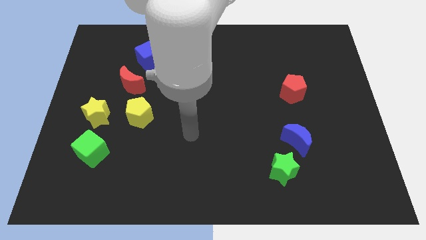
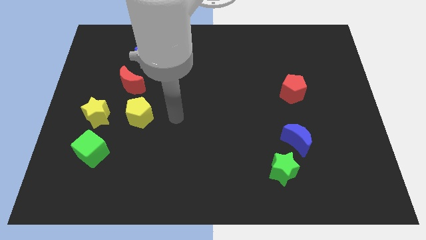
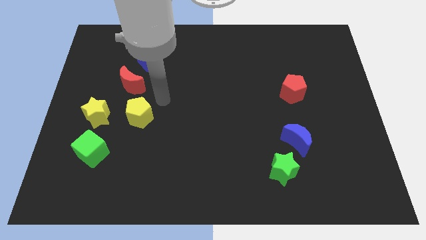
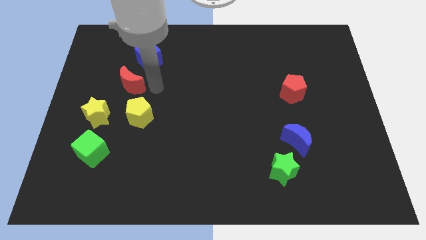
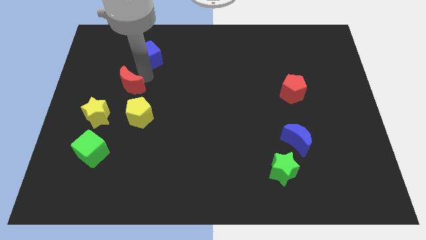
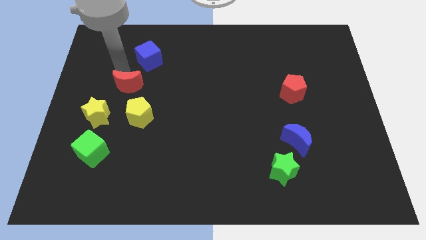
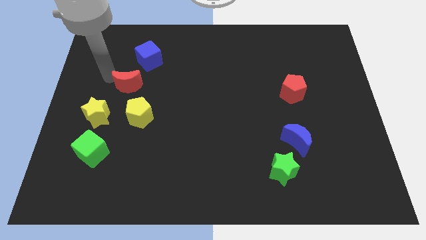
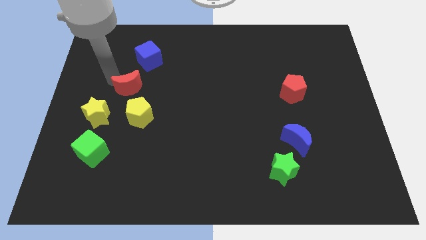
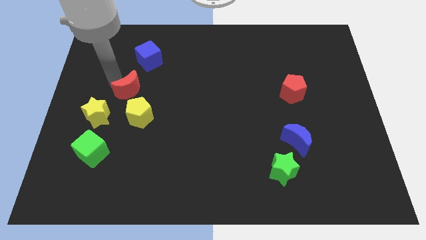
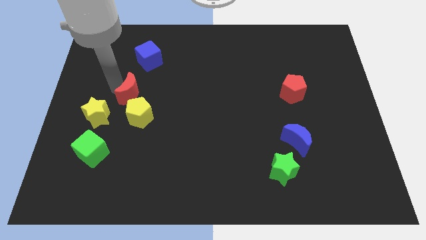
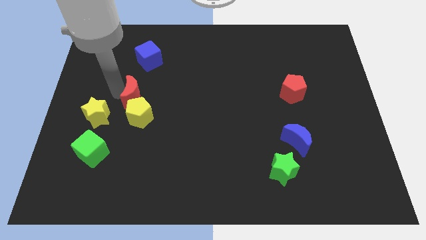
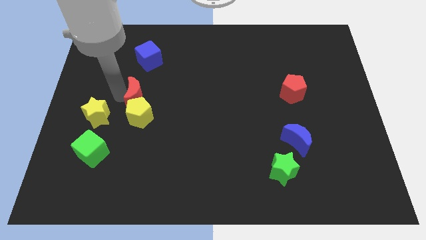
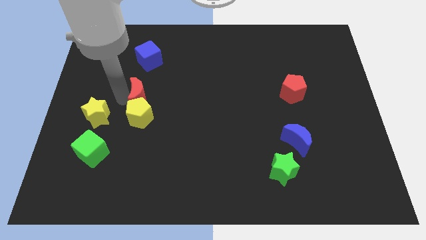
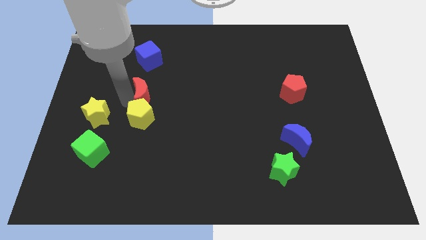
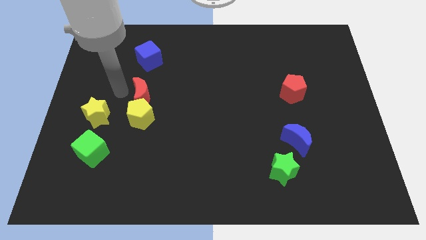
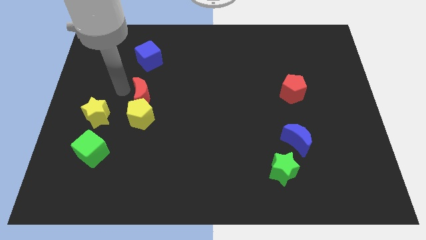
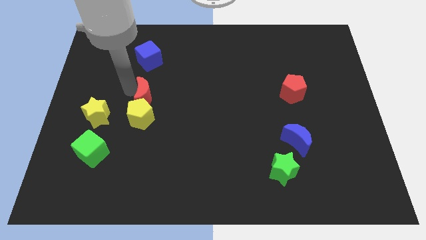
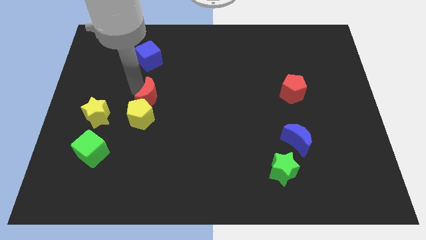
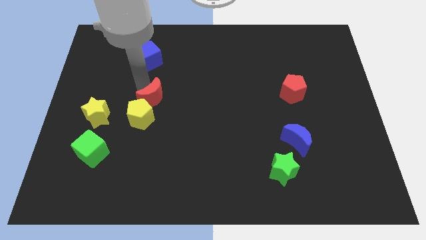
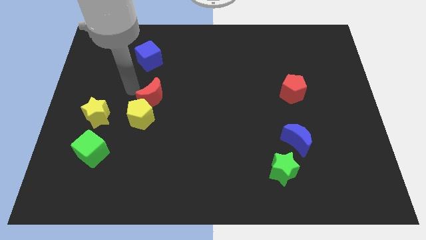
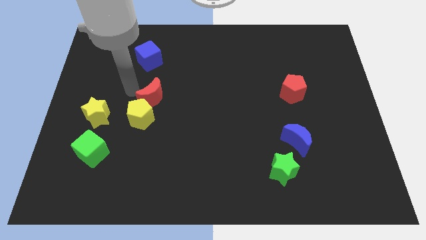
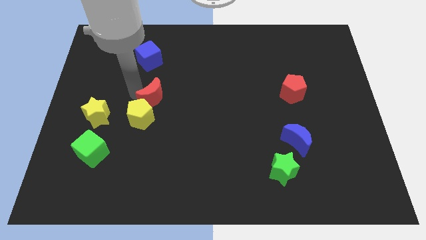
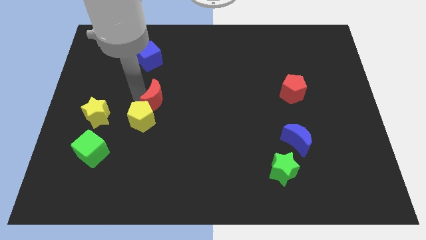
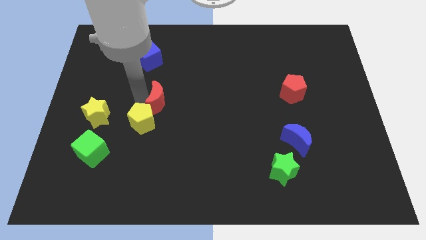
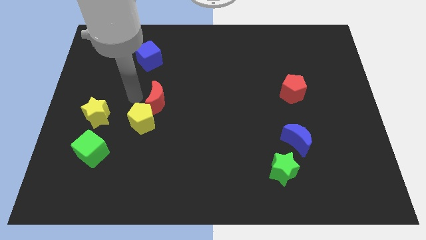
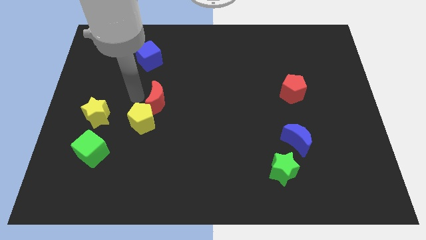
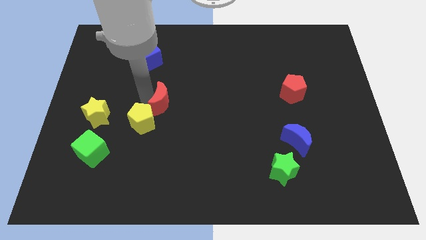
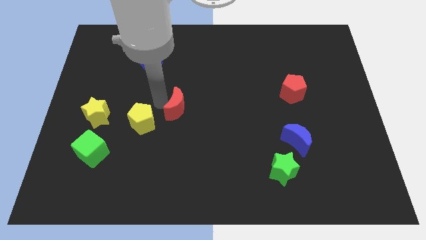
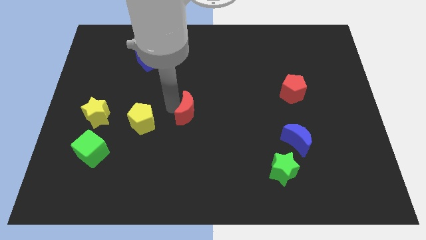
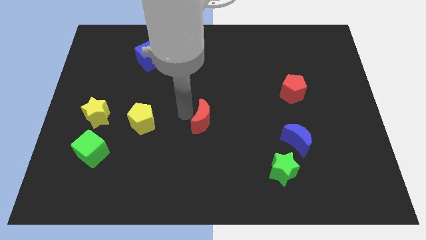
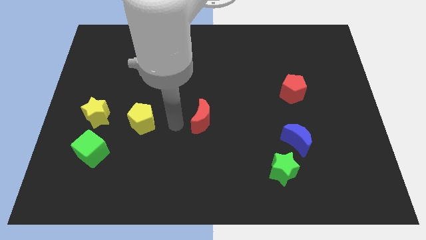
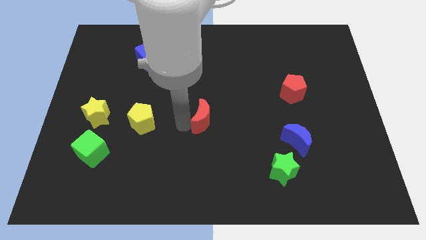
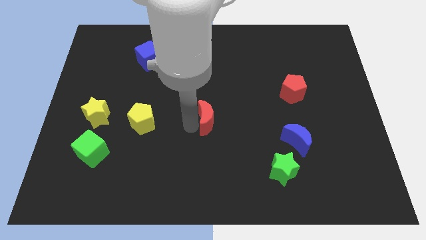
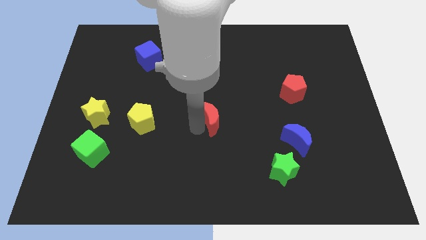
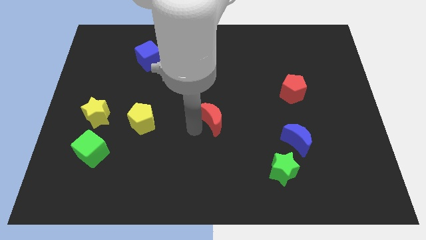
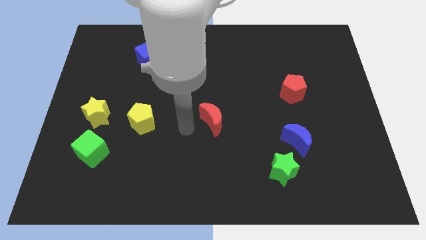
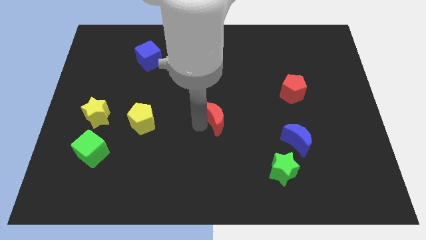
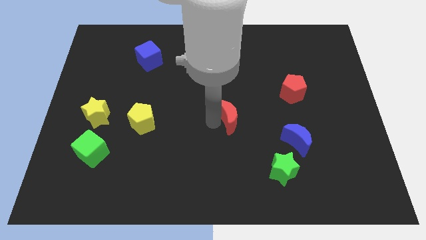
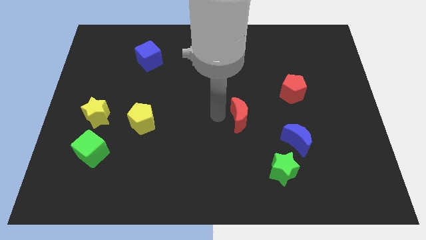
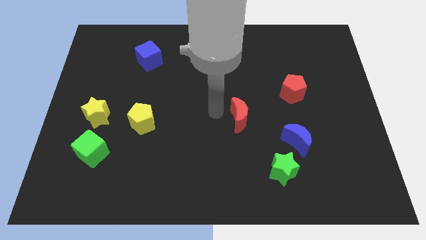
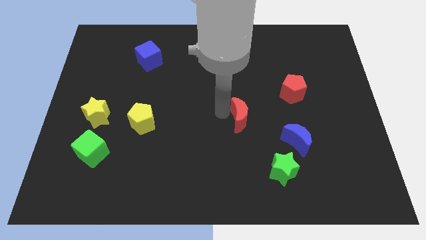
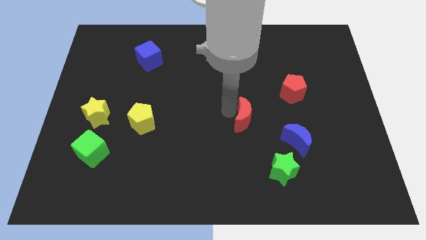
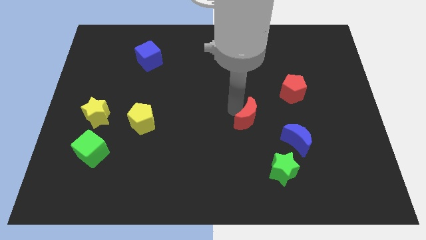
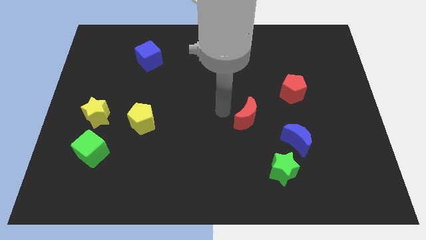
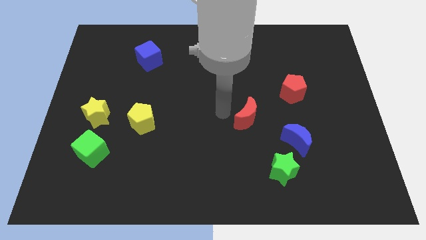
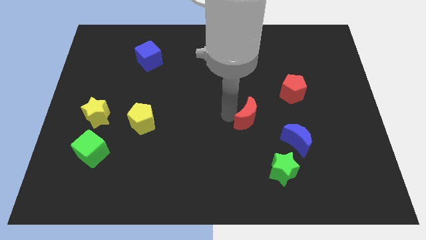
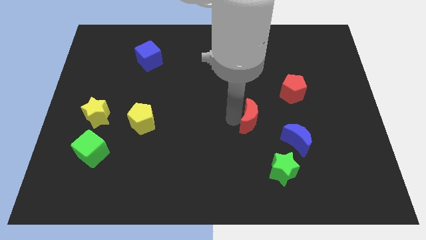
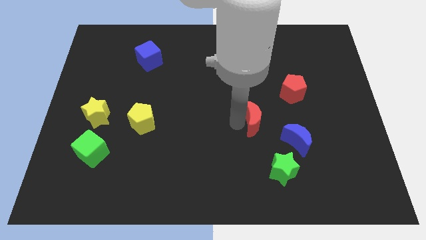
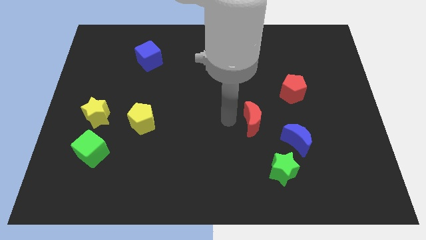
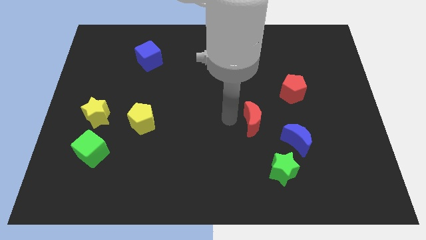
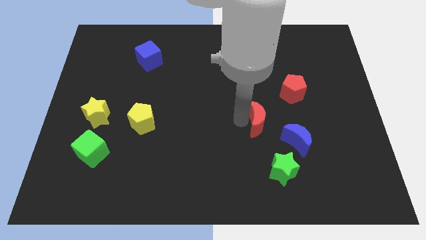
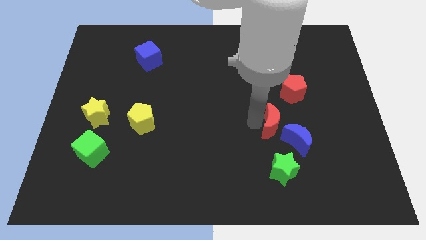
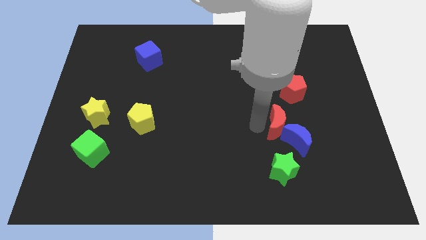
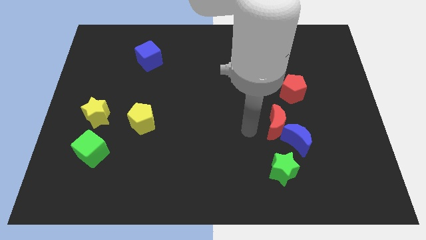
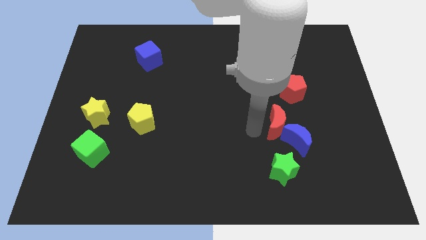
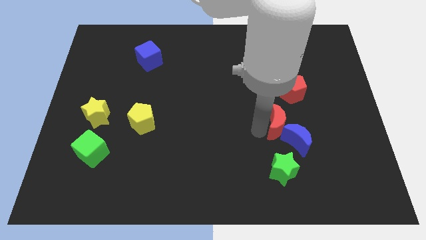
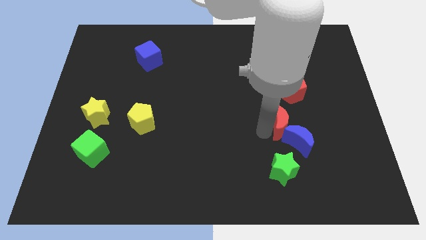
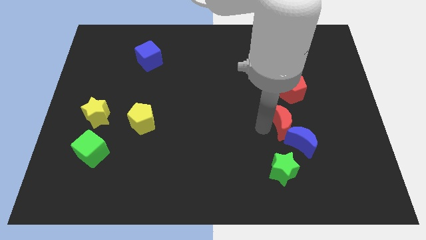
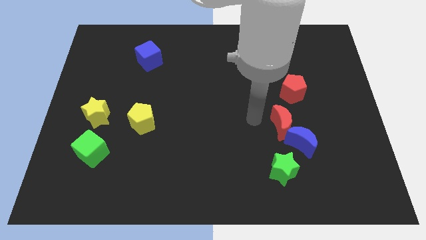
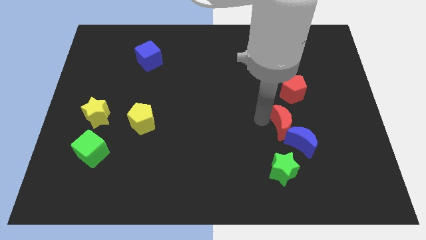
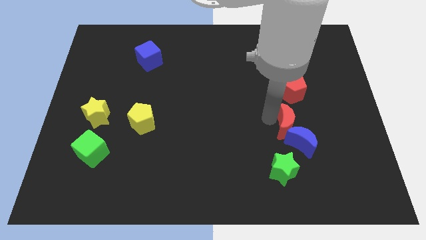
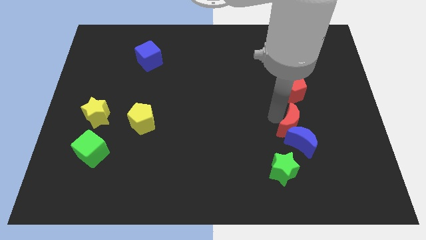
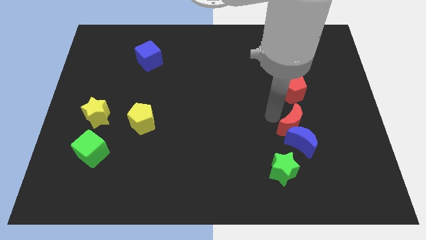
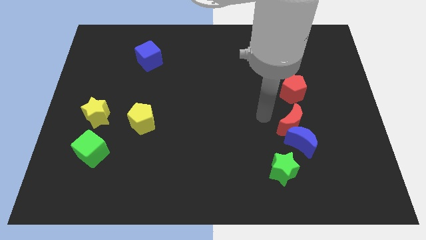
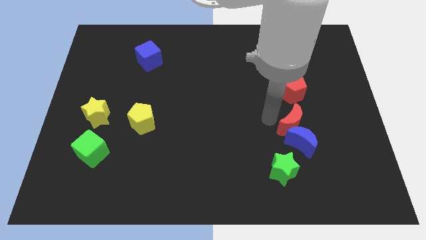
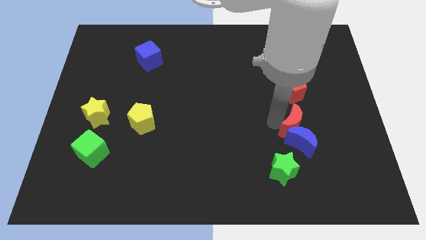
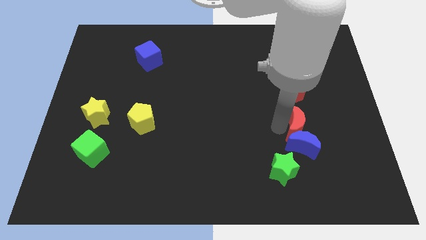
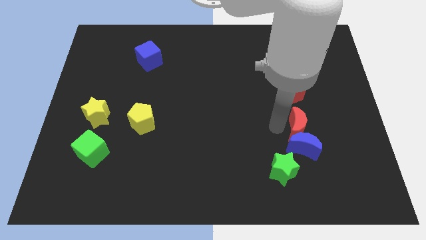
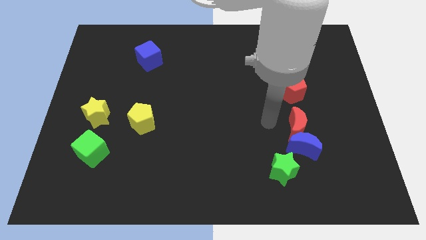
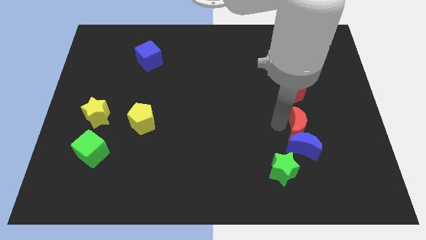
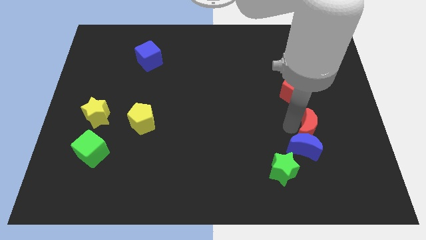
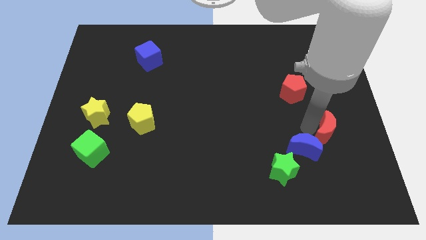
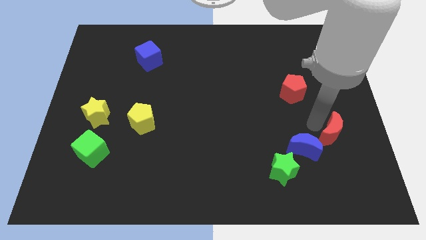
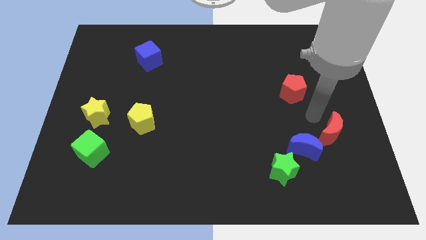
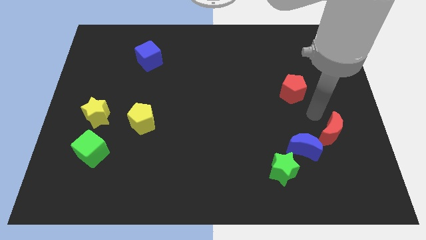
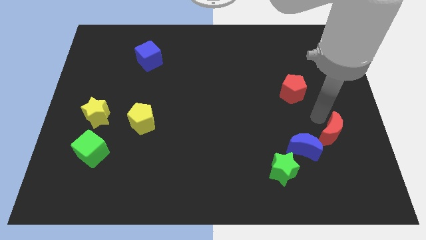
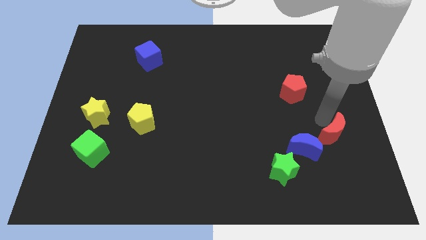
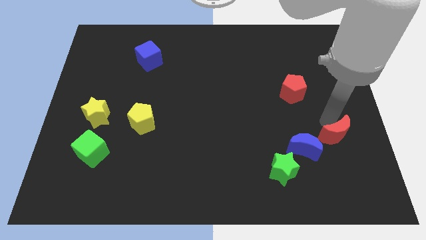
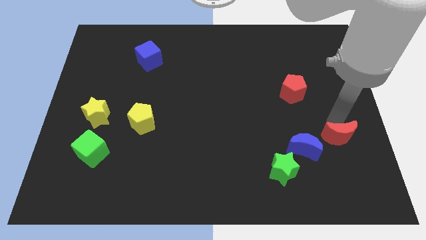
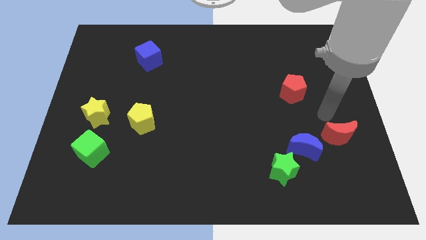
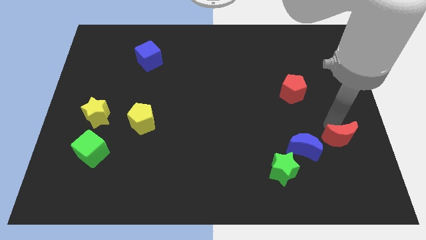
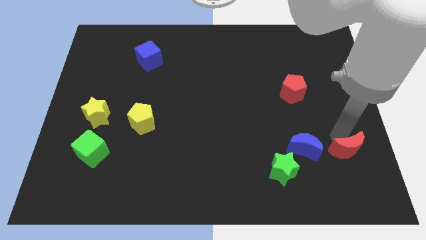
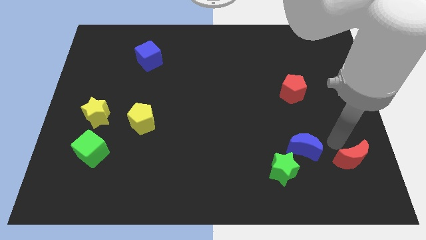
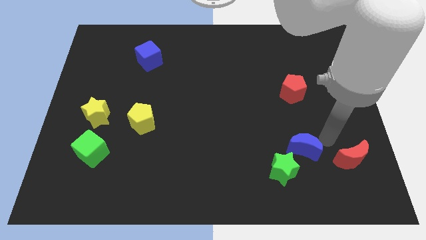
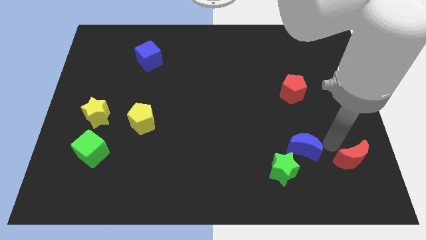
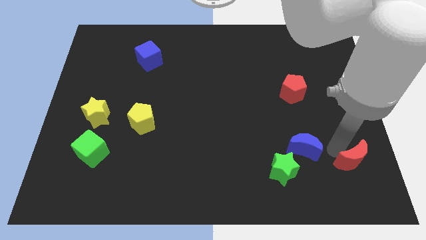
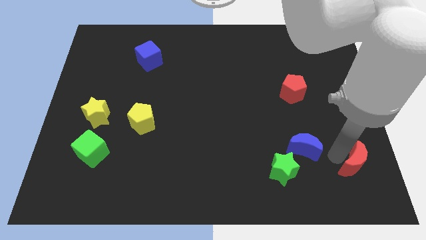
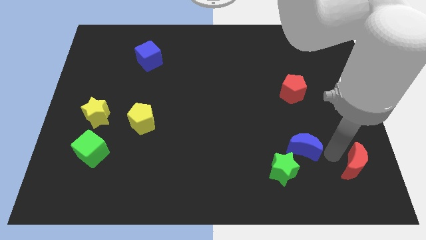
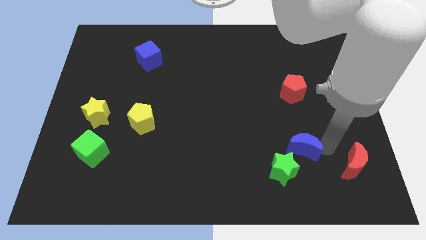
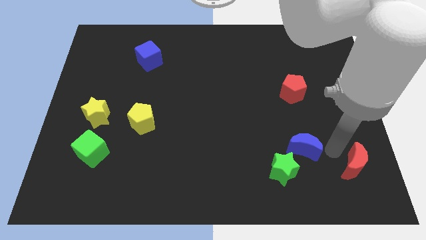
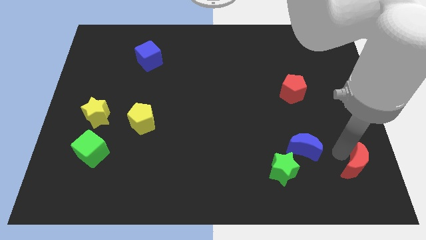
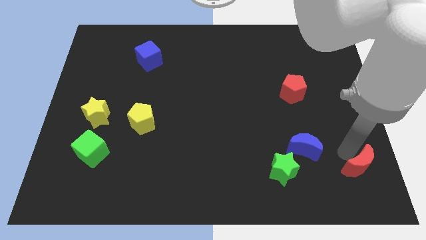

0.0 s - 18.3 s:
move the red moon to the bottom right of the board
